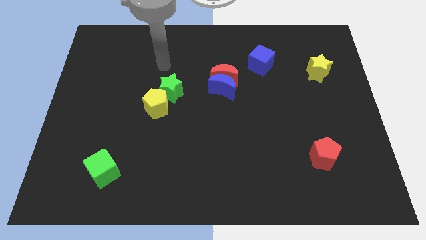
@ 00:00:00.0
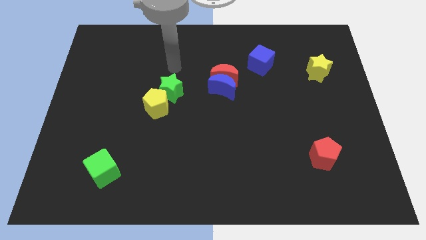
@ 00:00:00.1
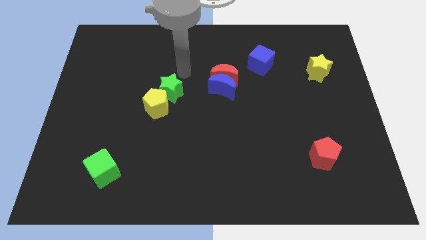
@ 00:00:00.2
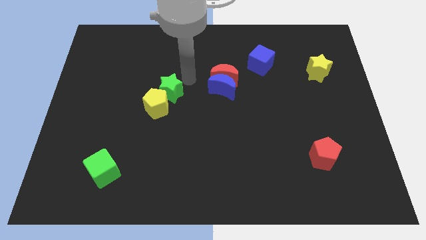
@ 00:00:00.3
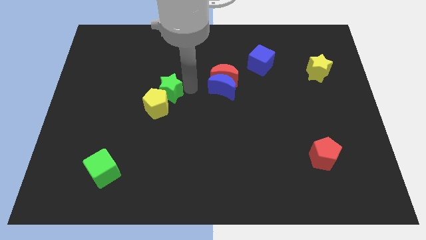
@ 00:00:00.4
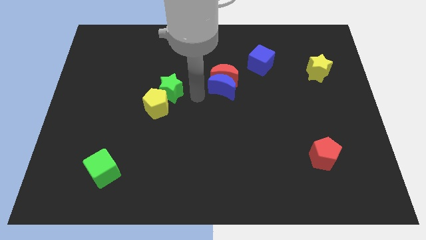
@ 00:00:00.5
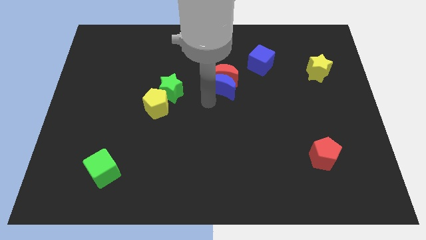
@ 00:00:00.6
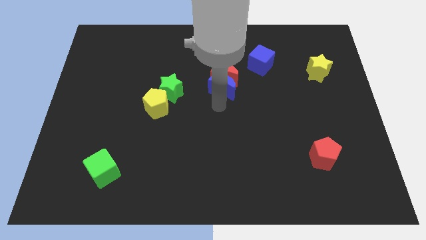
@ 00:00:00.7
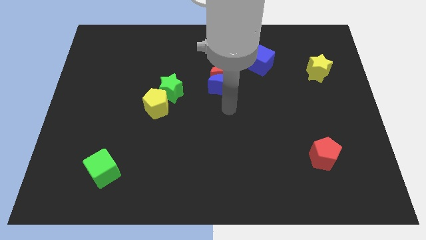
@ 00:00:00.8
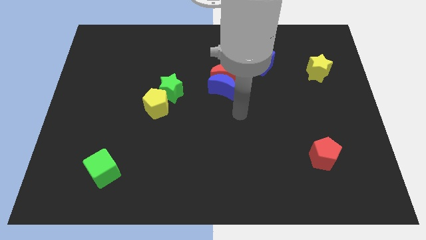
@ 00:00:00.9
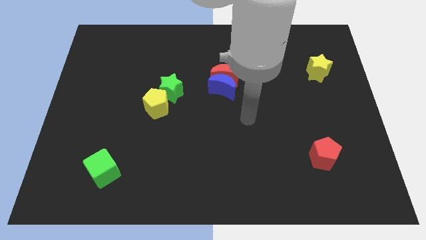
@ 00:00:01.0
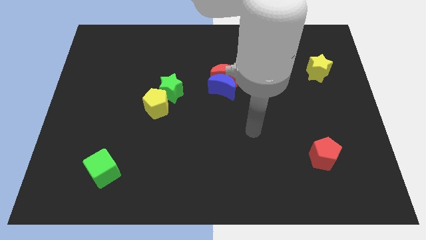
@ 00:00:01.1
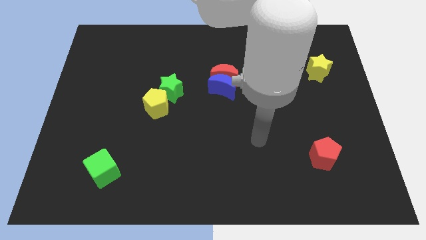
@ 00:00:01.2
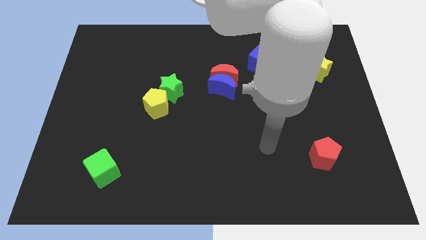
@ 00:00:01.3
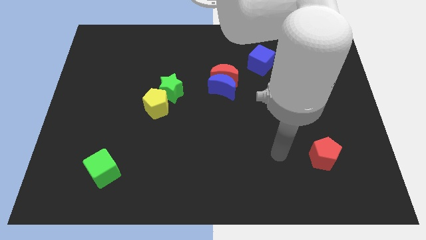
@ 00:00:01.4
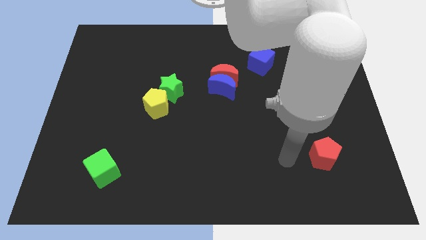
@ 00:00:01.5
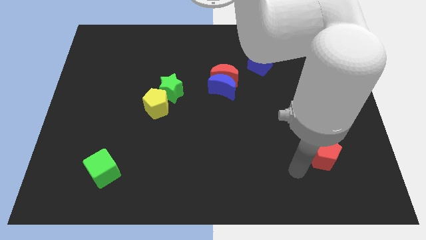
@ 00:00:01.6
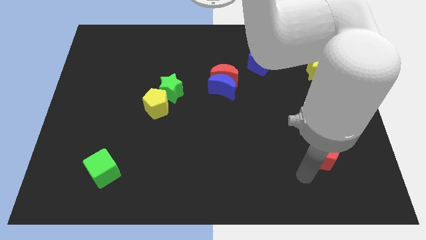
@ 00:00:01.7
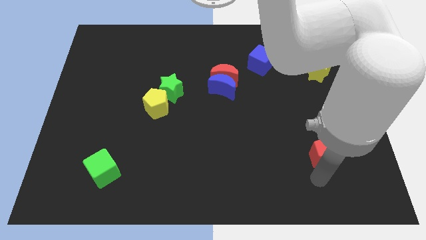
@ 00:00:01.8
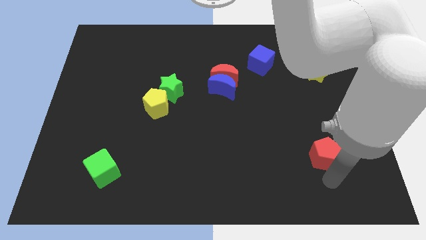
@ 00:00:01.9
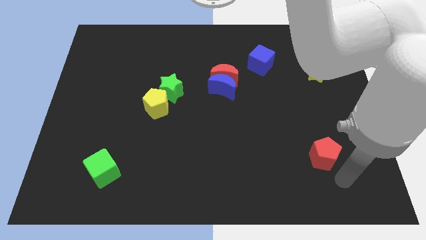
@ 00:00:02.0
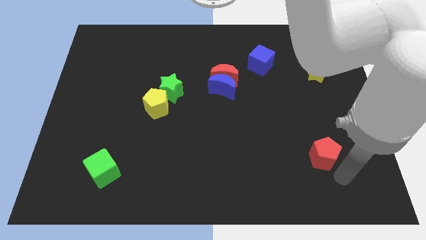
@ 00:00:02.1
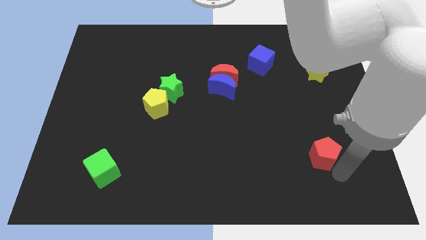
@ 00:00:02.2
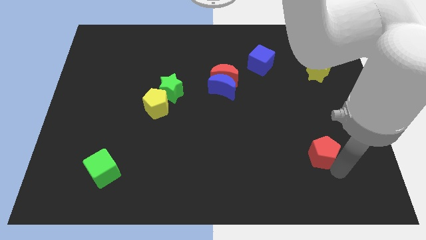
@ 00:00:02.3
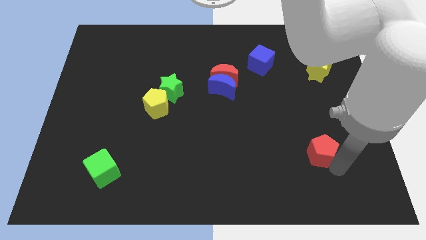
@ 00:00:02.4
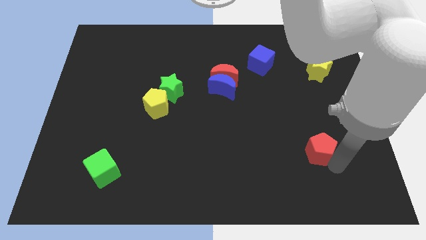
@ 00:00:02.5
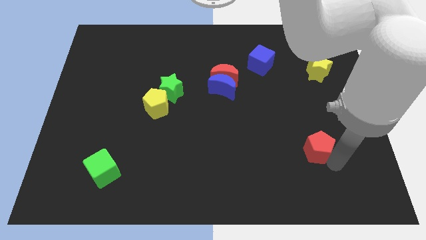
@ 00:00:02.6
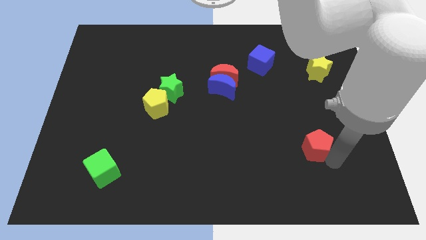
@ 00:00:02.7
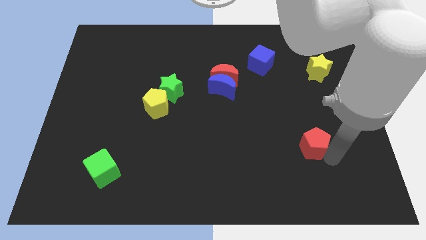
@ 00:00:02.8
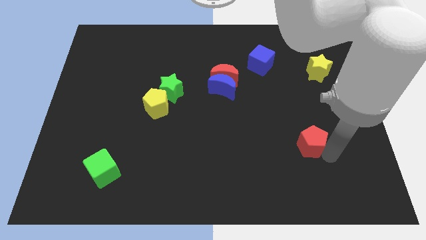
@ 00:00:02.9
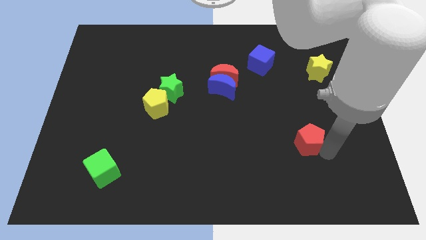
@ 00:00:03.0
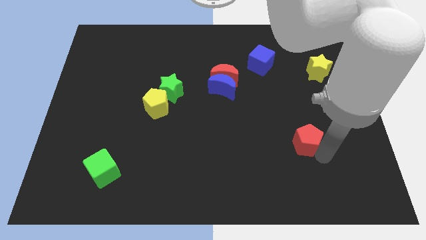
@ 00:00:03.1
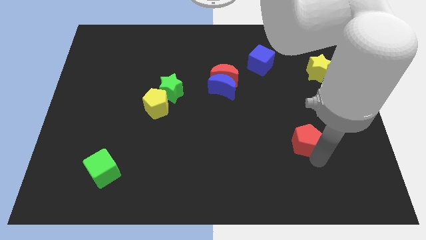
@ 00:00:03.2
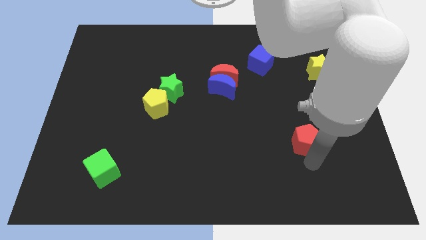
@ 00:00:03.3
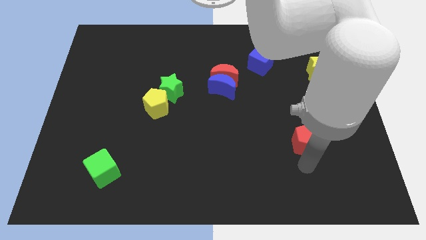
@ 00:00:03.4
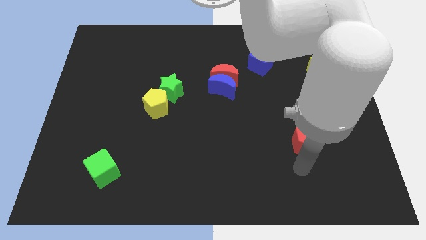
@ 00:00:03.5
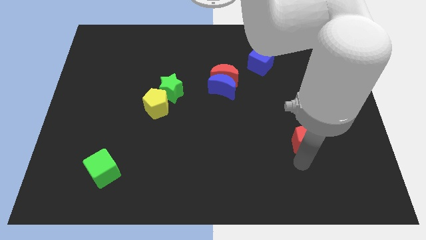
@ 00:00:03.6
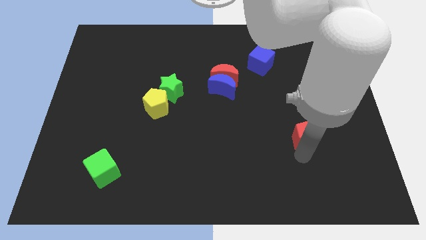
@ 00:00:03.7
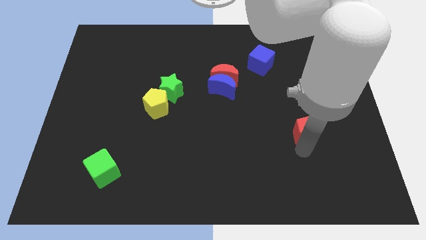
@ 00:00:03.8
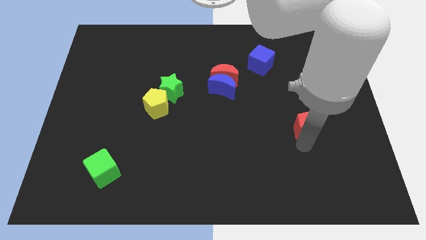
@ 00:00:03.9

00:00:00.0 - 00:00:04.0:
slide the red pentagon somewhat up

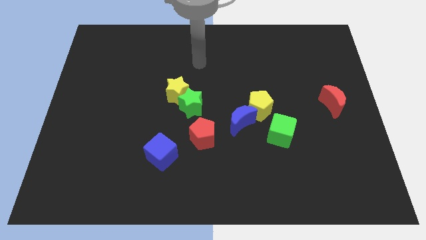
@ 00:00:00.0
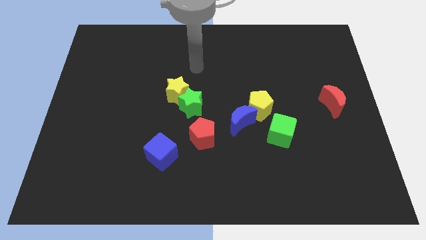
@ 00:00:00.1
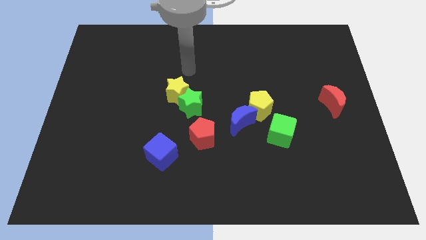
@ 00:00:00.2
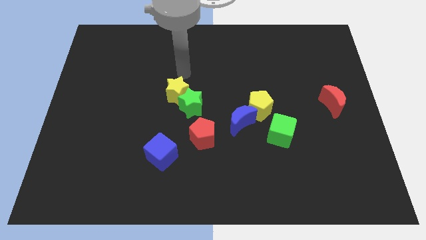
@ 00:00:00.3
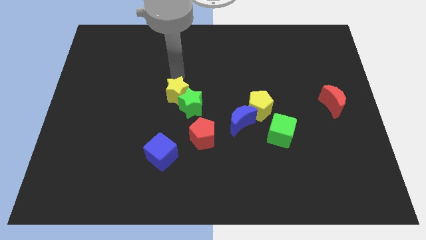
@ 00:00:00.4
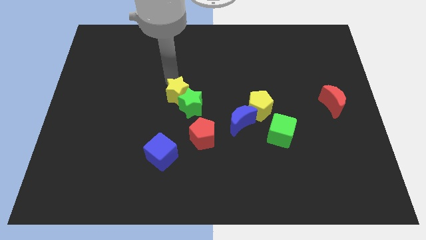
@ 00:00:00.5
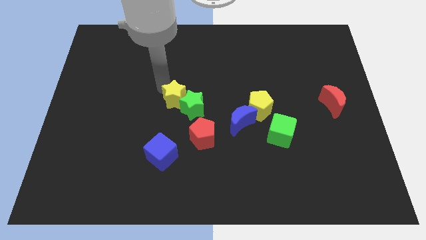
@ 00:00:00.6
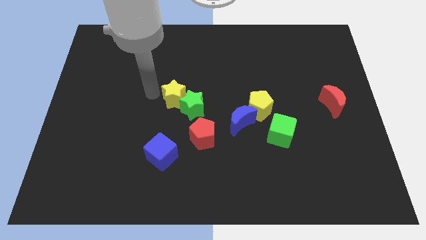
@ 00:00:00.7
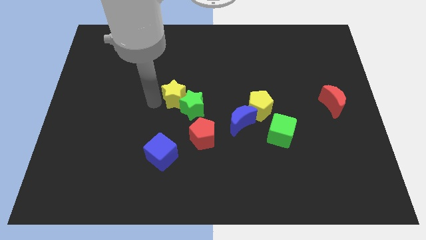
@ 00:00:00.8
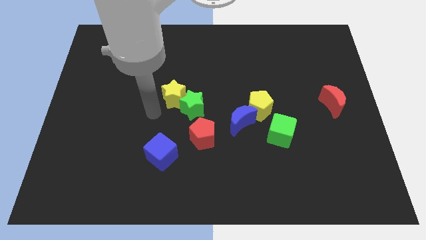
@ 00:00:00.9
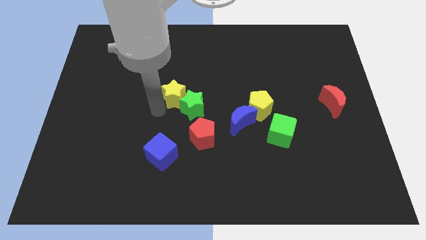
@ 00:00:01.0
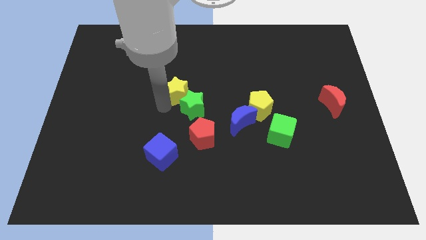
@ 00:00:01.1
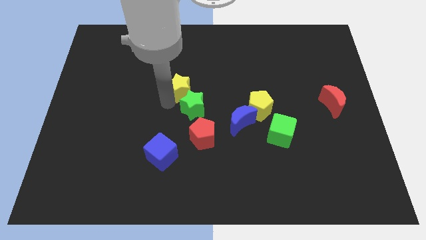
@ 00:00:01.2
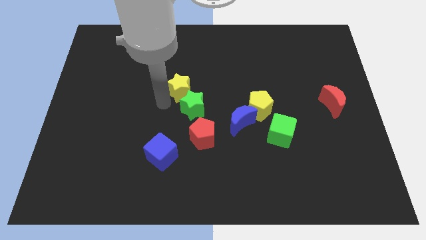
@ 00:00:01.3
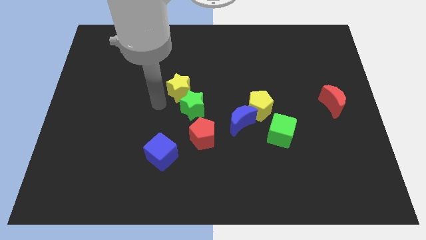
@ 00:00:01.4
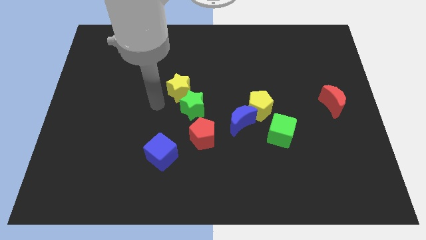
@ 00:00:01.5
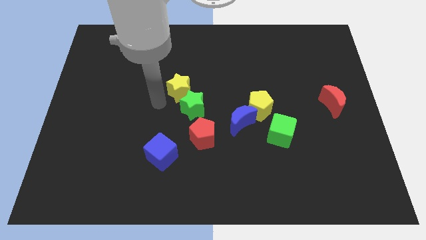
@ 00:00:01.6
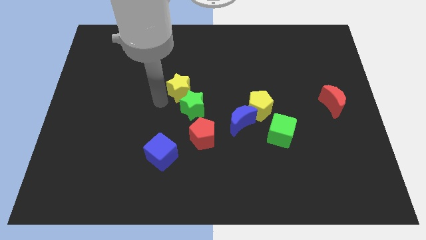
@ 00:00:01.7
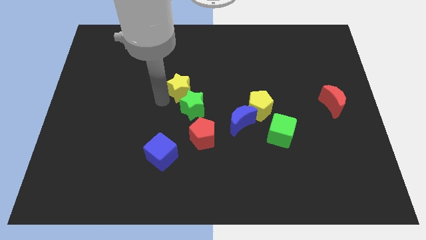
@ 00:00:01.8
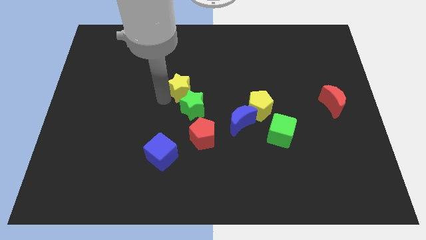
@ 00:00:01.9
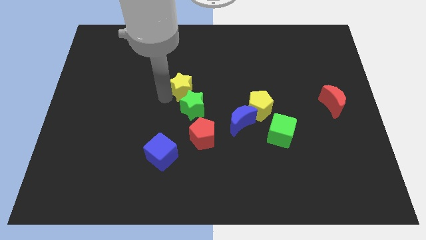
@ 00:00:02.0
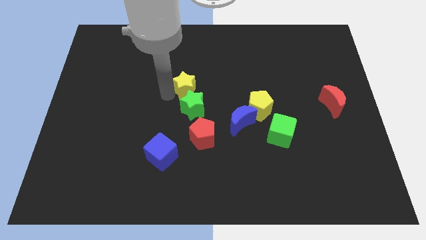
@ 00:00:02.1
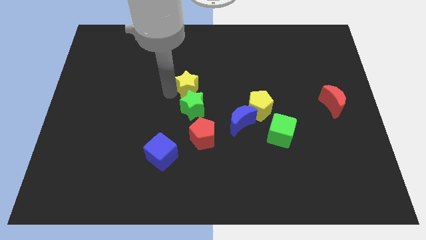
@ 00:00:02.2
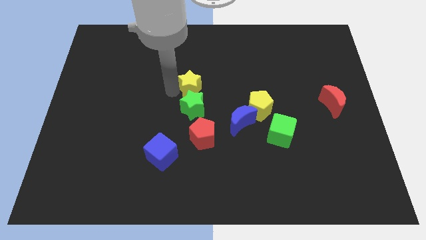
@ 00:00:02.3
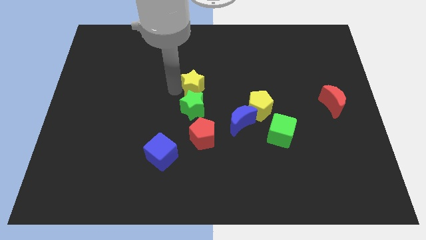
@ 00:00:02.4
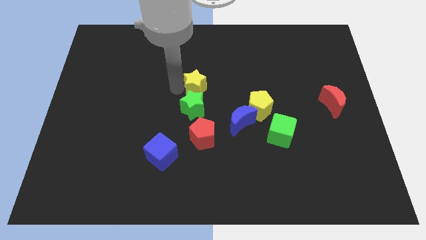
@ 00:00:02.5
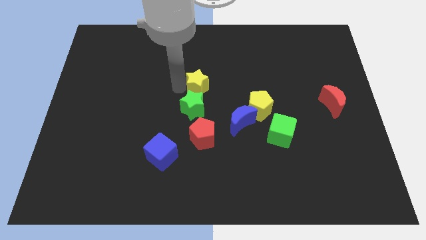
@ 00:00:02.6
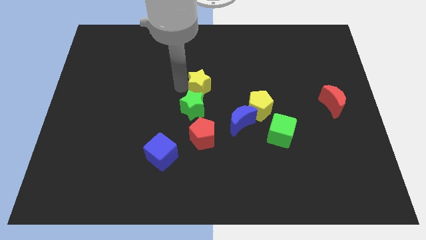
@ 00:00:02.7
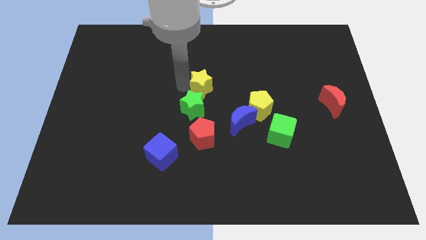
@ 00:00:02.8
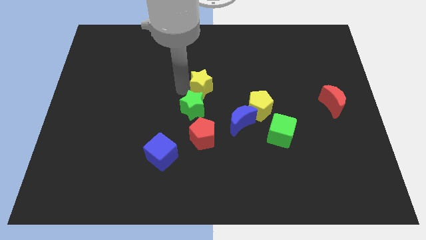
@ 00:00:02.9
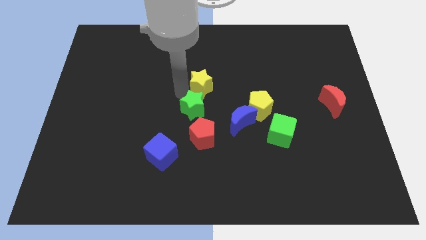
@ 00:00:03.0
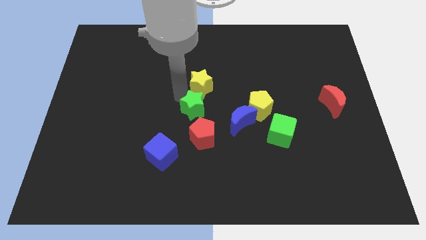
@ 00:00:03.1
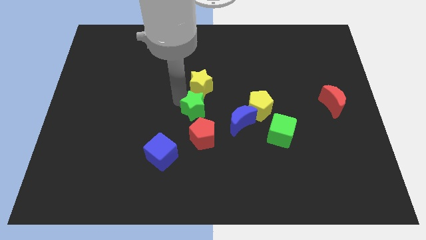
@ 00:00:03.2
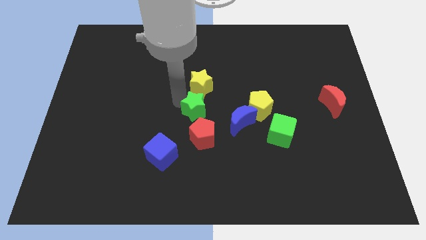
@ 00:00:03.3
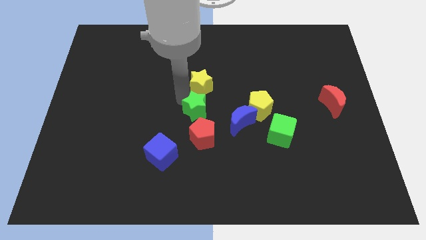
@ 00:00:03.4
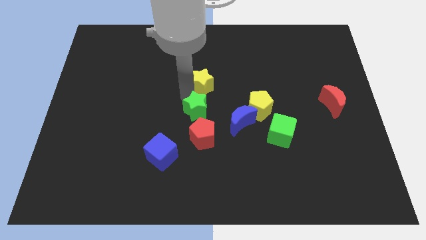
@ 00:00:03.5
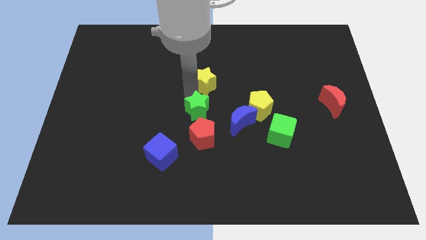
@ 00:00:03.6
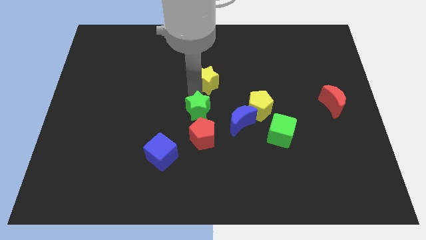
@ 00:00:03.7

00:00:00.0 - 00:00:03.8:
slide the yellow star a little up and right diagonally

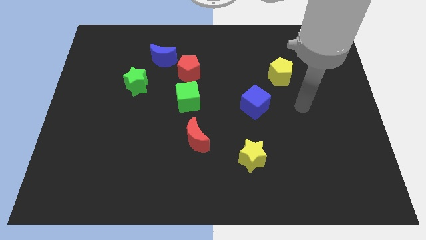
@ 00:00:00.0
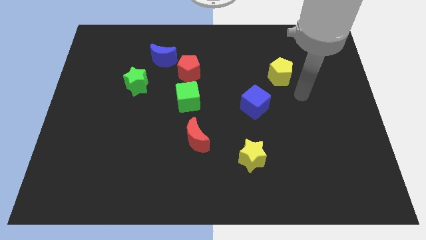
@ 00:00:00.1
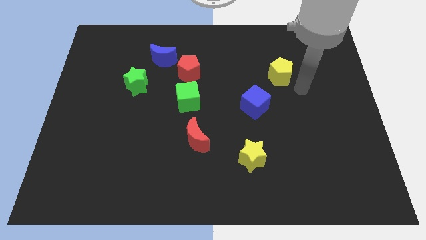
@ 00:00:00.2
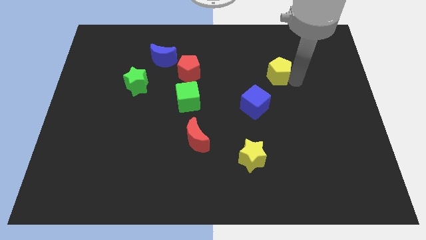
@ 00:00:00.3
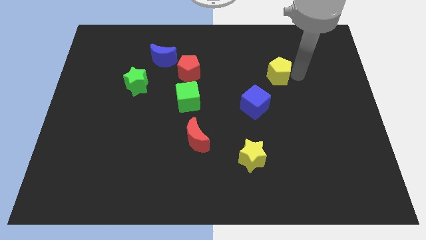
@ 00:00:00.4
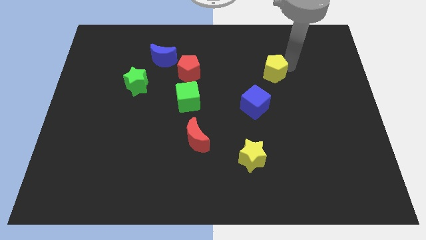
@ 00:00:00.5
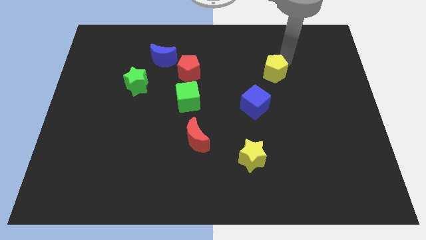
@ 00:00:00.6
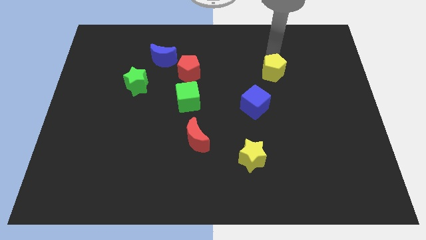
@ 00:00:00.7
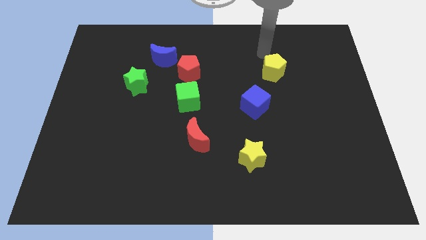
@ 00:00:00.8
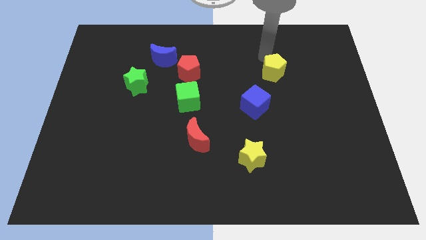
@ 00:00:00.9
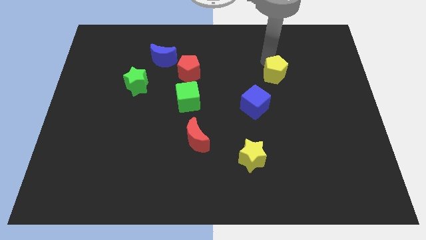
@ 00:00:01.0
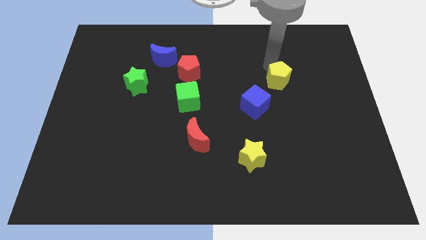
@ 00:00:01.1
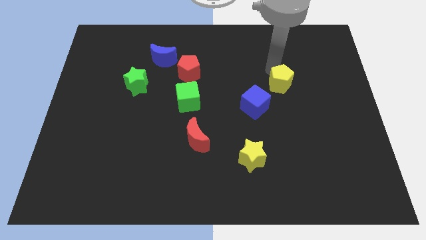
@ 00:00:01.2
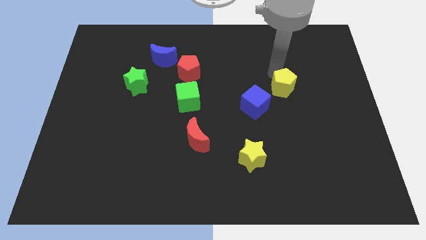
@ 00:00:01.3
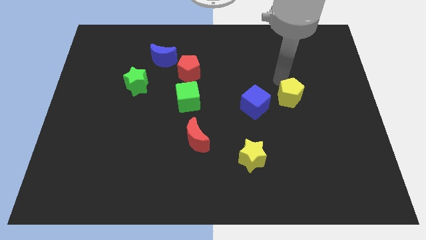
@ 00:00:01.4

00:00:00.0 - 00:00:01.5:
slightly push the yellow pentagon downwards
